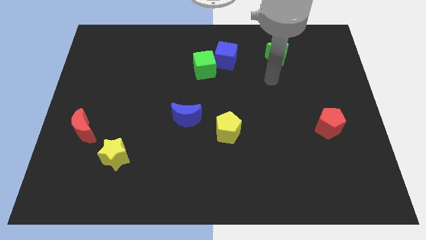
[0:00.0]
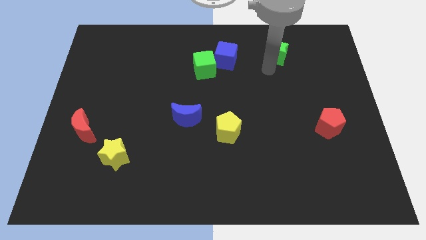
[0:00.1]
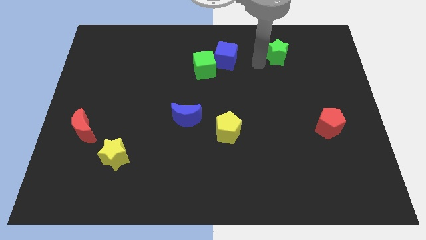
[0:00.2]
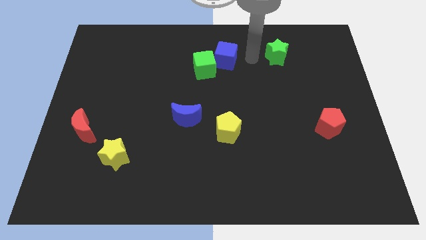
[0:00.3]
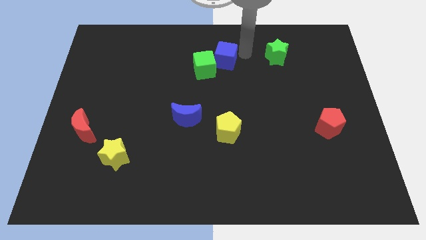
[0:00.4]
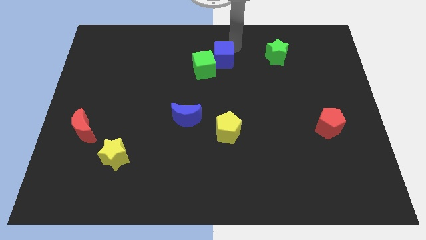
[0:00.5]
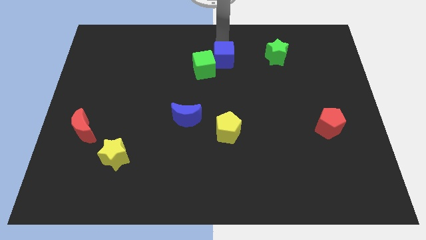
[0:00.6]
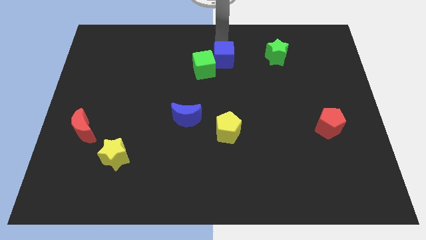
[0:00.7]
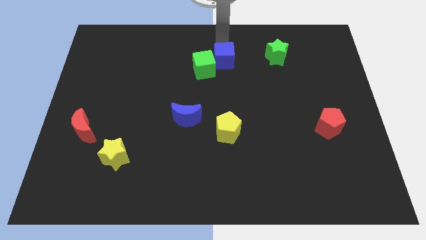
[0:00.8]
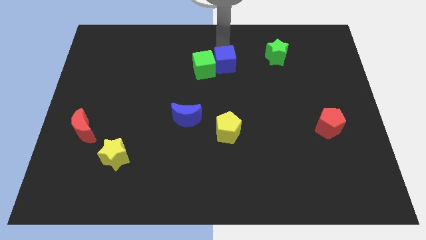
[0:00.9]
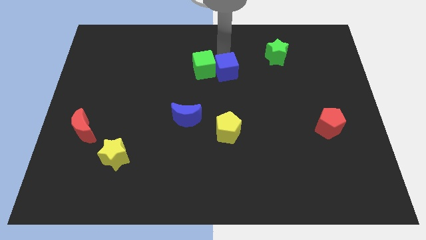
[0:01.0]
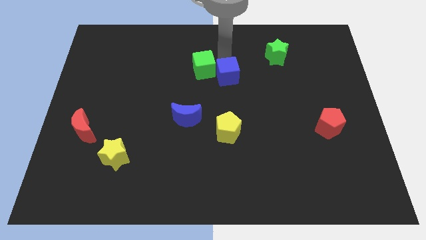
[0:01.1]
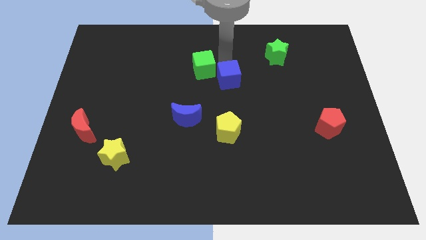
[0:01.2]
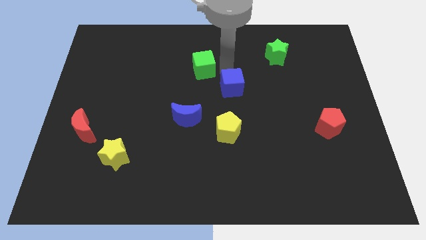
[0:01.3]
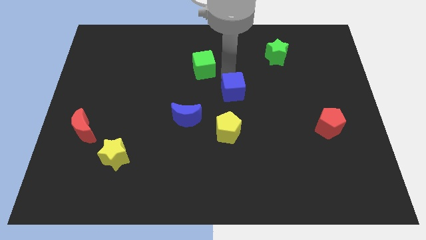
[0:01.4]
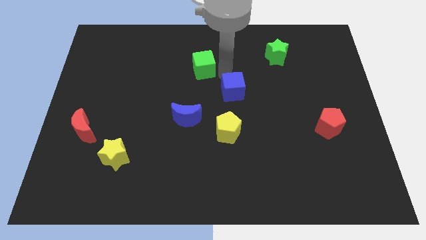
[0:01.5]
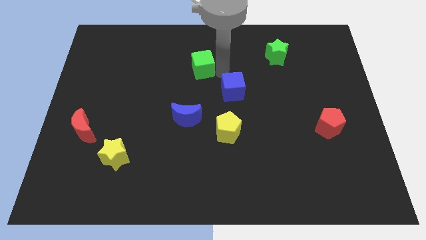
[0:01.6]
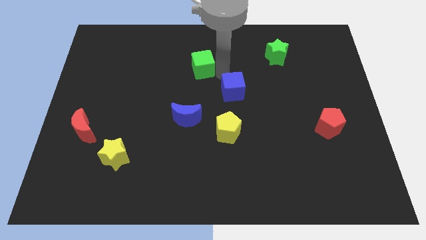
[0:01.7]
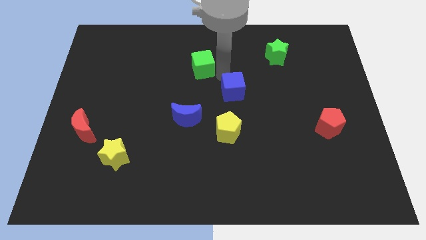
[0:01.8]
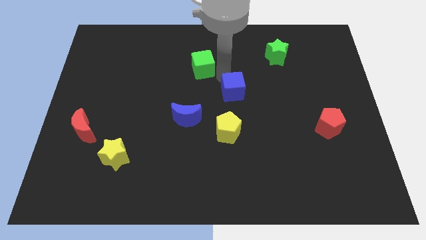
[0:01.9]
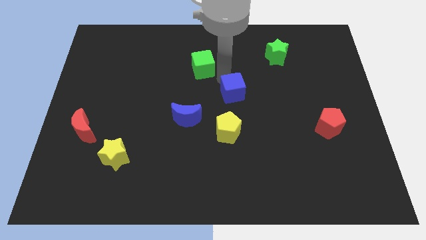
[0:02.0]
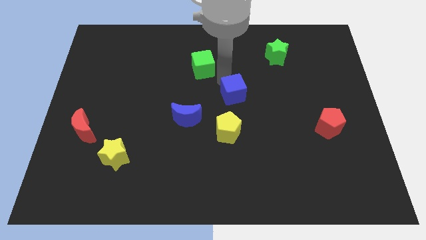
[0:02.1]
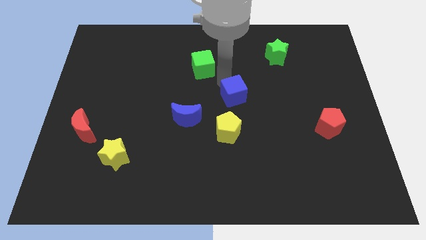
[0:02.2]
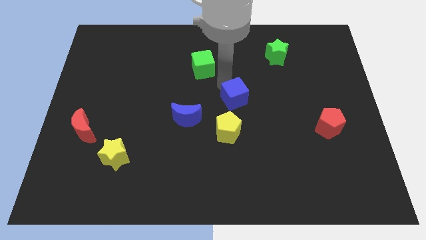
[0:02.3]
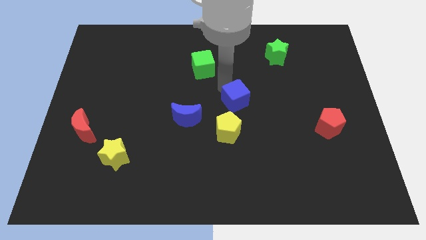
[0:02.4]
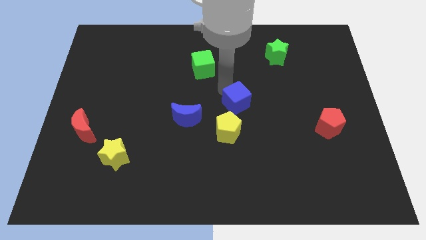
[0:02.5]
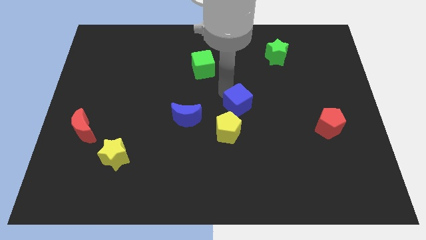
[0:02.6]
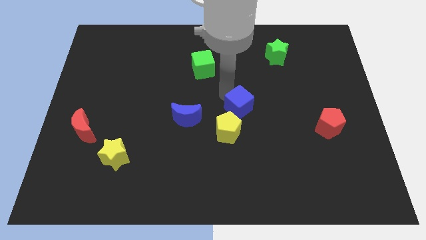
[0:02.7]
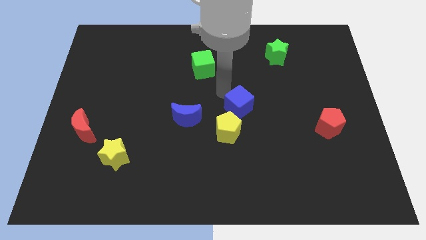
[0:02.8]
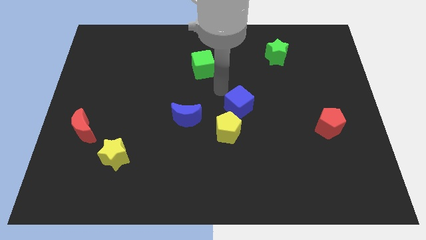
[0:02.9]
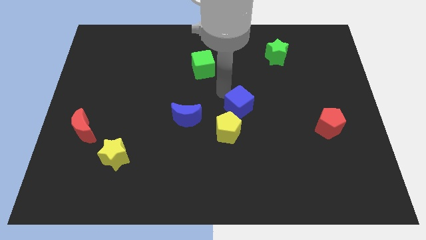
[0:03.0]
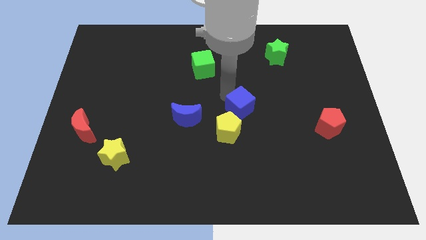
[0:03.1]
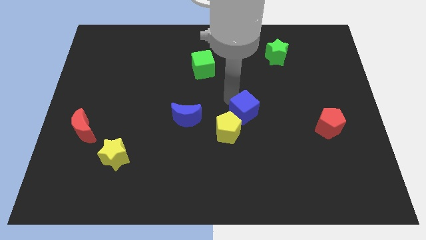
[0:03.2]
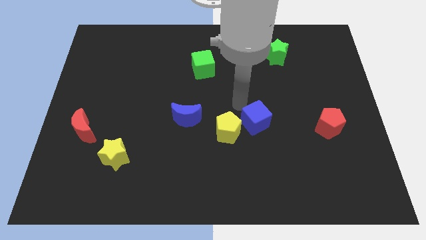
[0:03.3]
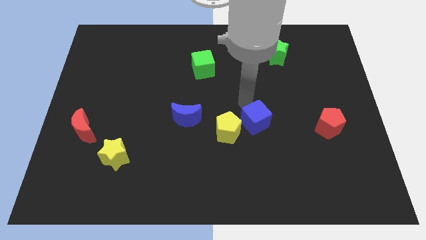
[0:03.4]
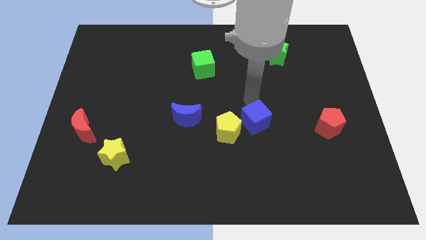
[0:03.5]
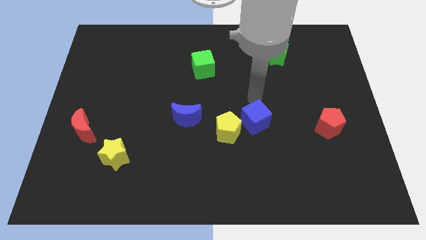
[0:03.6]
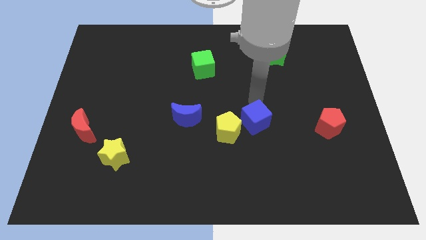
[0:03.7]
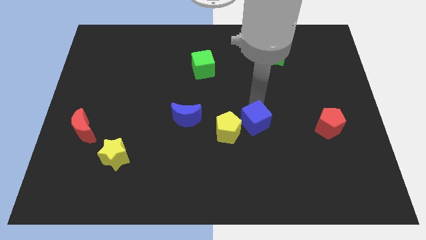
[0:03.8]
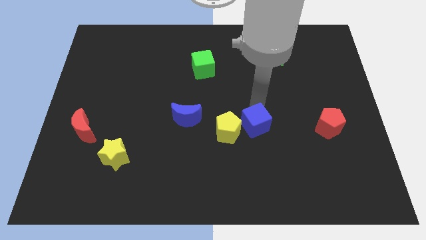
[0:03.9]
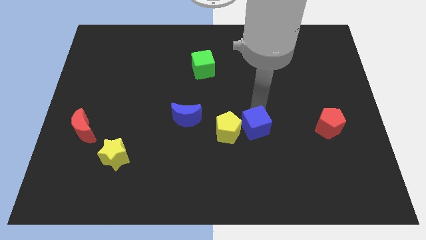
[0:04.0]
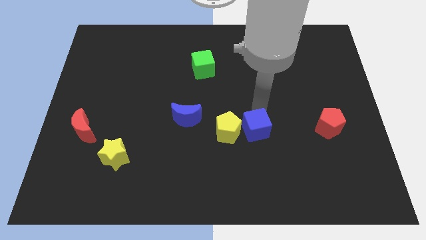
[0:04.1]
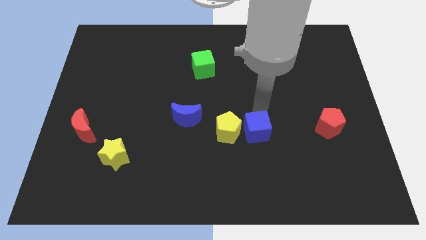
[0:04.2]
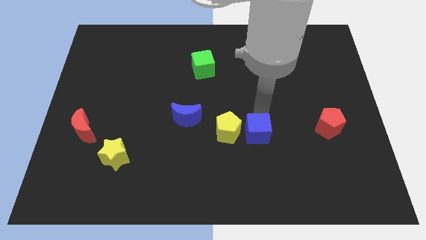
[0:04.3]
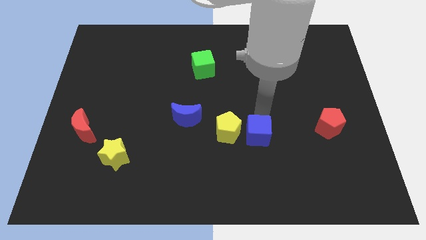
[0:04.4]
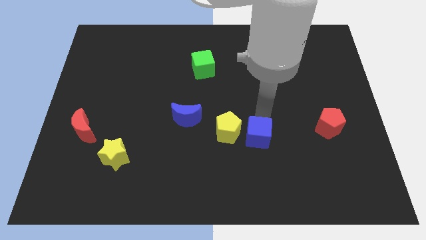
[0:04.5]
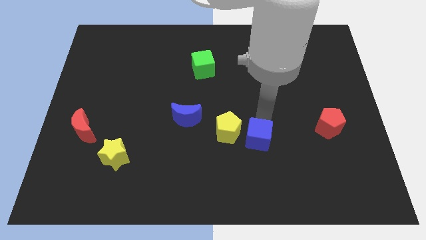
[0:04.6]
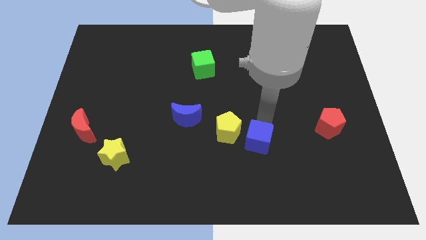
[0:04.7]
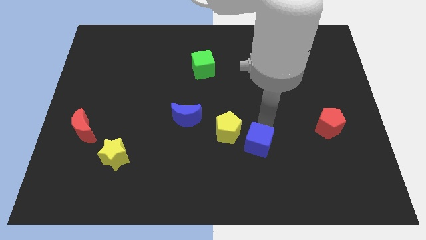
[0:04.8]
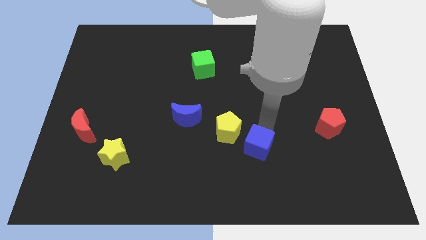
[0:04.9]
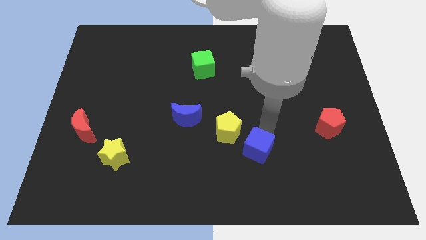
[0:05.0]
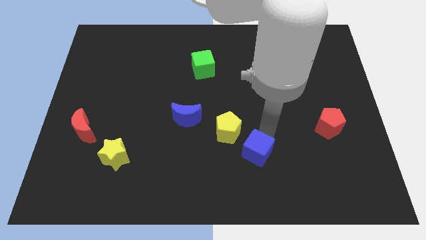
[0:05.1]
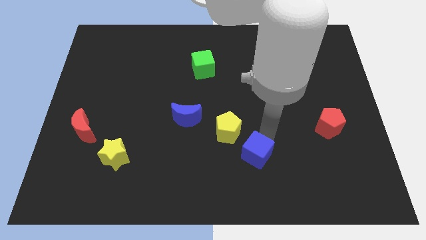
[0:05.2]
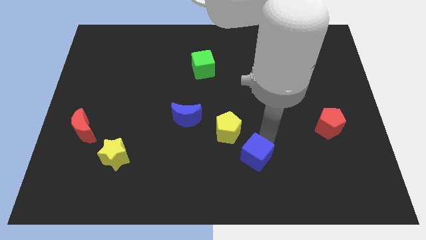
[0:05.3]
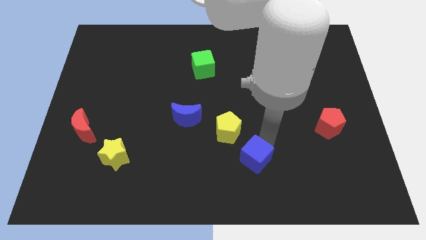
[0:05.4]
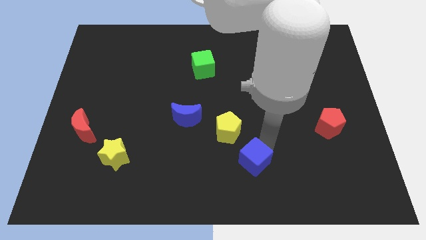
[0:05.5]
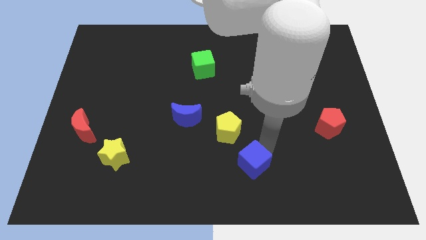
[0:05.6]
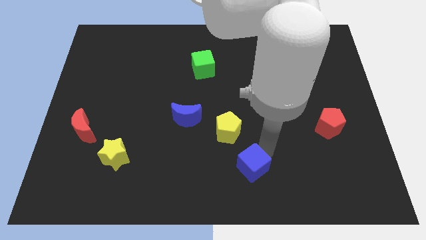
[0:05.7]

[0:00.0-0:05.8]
slide the blue cube to the bottom of the yellow pentagon

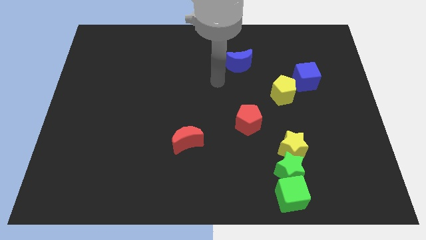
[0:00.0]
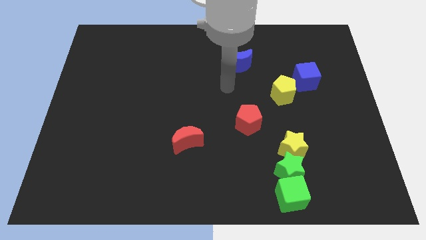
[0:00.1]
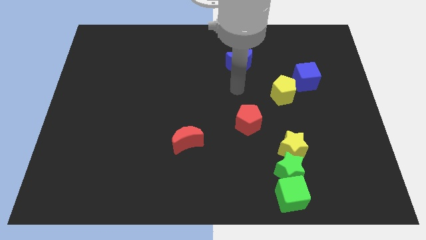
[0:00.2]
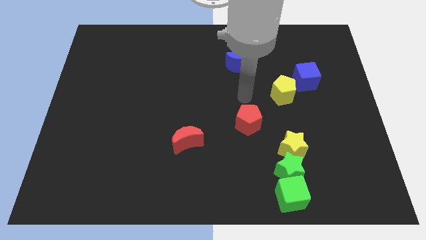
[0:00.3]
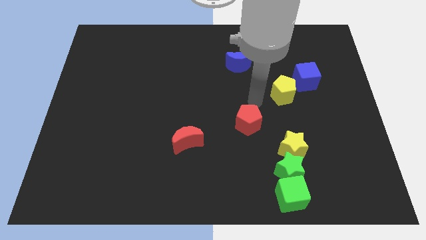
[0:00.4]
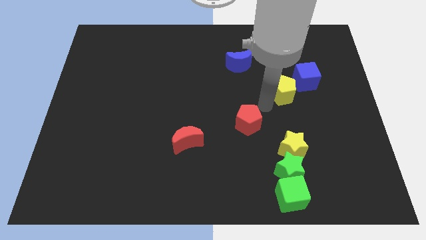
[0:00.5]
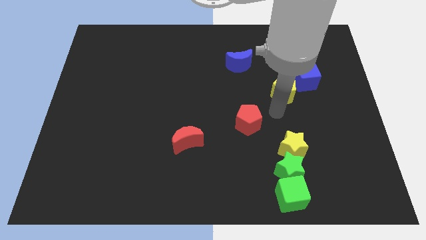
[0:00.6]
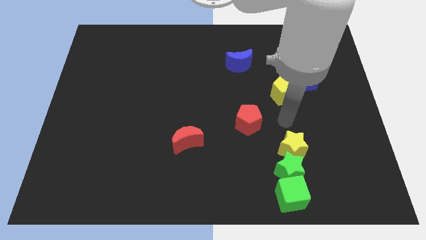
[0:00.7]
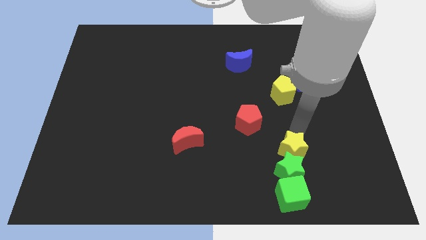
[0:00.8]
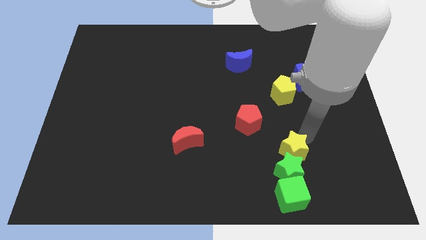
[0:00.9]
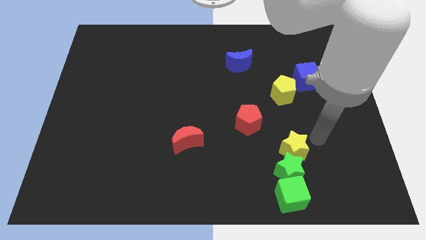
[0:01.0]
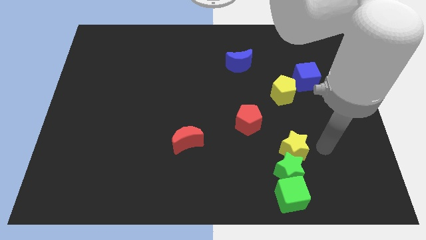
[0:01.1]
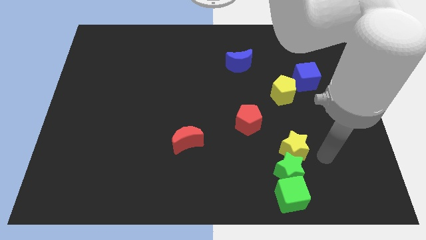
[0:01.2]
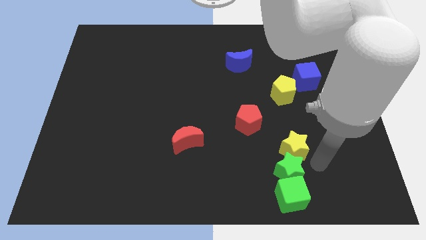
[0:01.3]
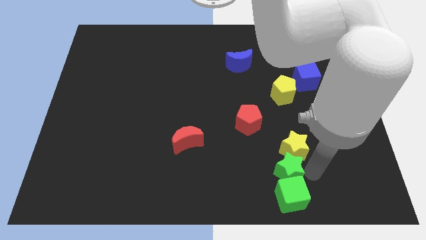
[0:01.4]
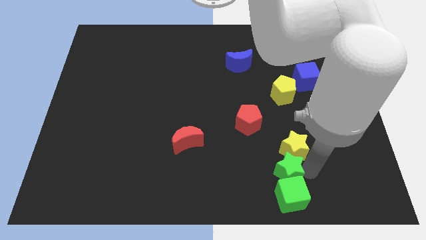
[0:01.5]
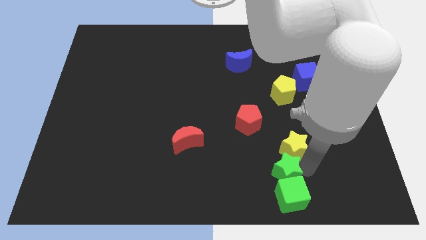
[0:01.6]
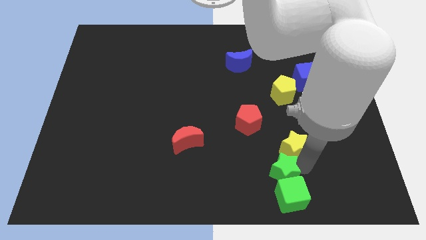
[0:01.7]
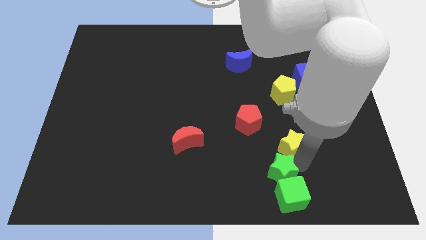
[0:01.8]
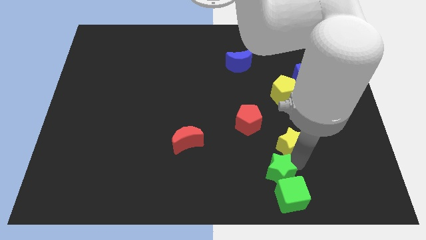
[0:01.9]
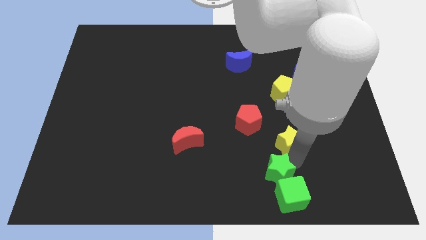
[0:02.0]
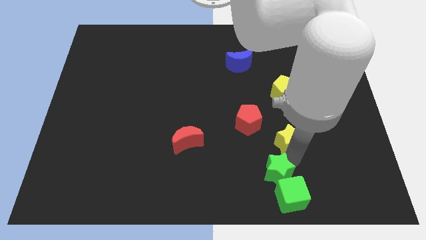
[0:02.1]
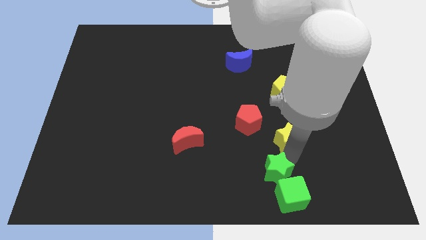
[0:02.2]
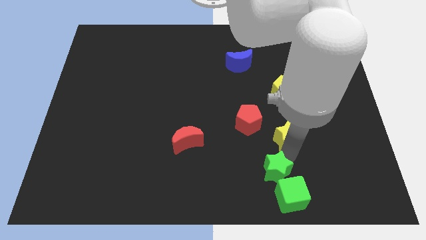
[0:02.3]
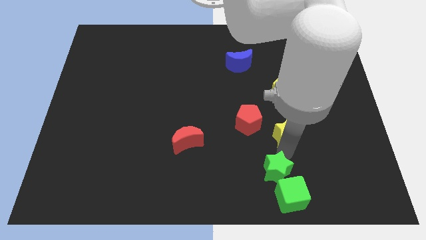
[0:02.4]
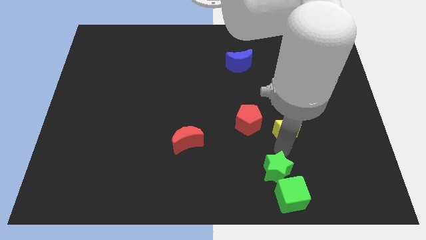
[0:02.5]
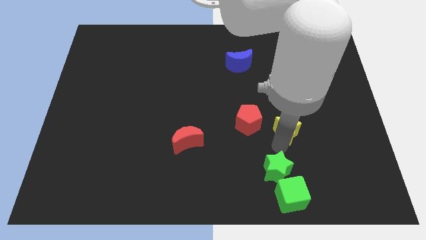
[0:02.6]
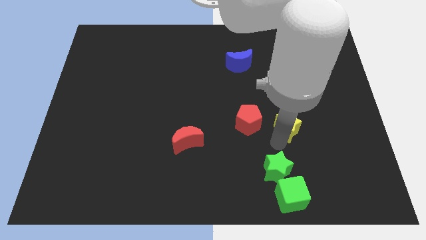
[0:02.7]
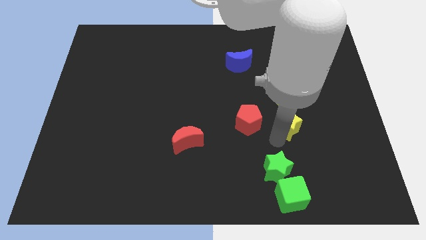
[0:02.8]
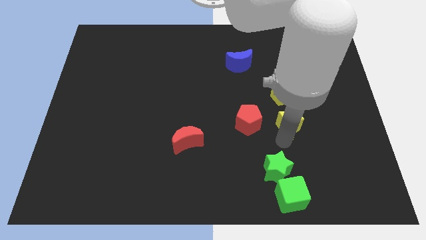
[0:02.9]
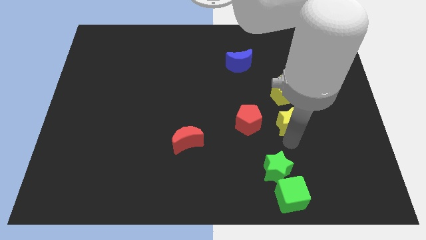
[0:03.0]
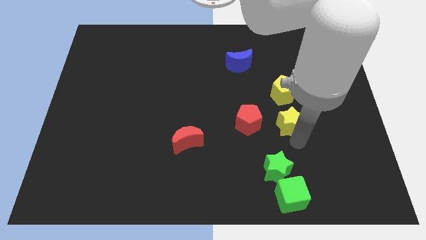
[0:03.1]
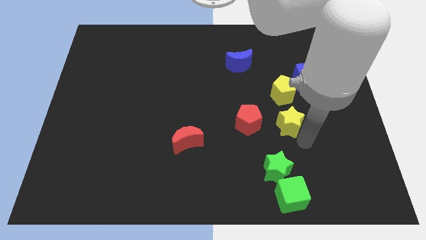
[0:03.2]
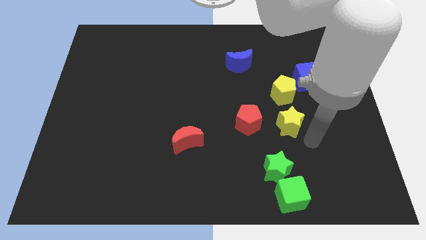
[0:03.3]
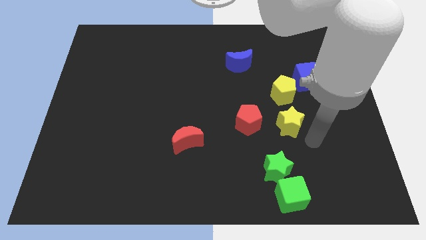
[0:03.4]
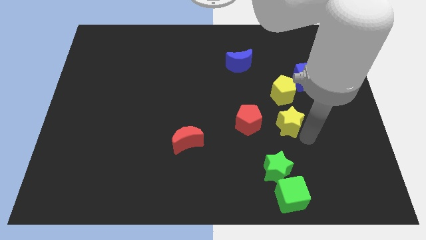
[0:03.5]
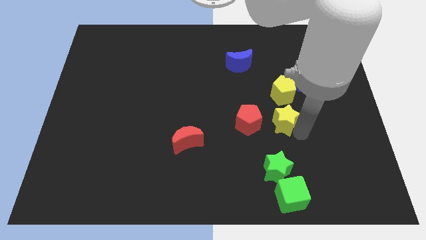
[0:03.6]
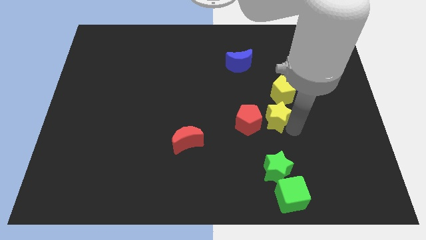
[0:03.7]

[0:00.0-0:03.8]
put the yellow star to the bottom left side of the yellow pentagon
